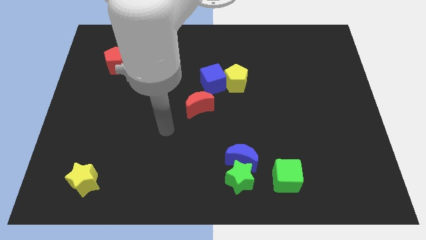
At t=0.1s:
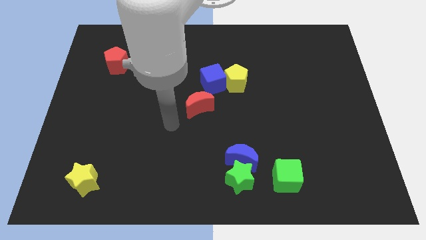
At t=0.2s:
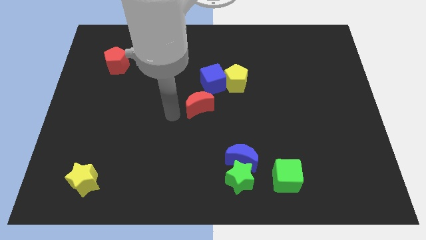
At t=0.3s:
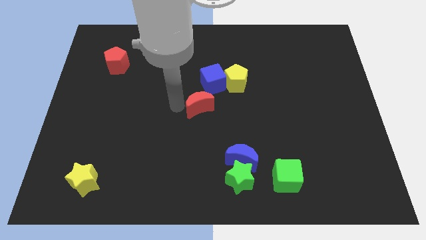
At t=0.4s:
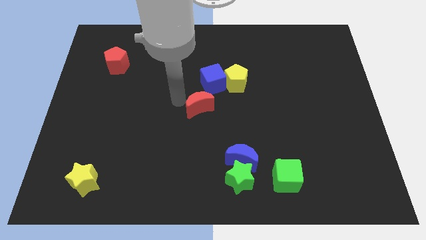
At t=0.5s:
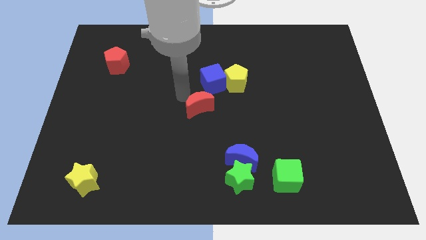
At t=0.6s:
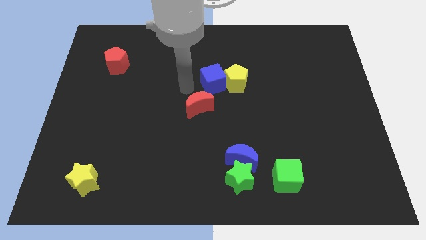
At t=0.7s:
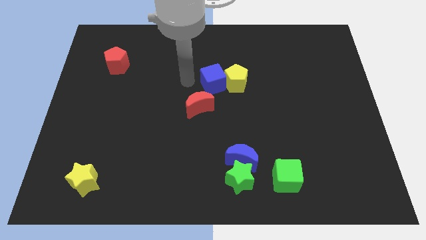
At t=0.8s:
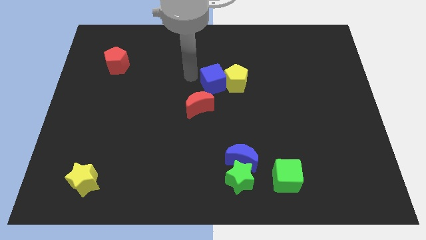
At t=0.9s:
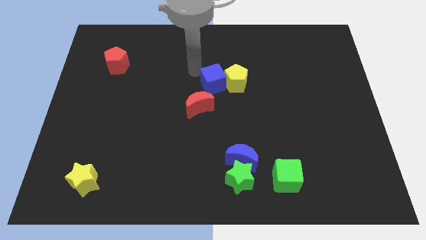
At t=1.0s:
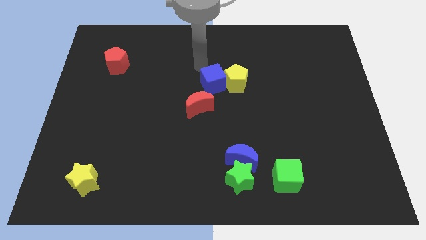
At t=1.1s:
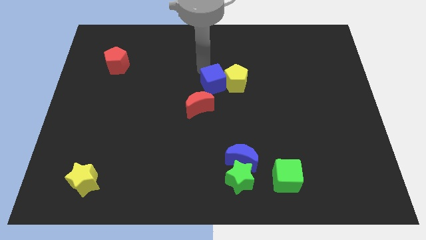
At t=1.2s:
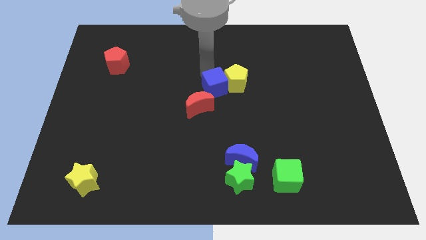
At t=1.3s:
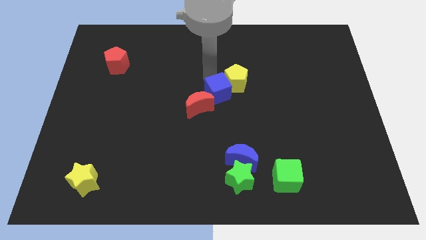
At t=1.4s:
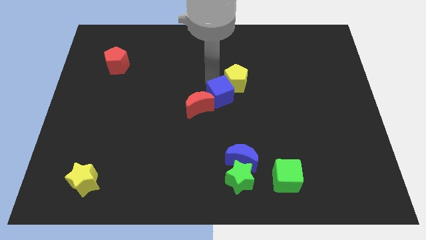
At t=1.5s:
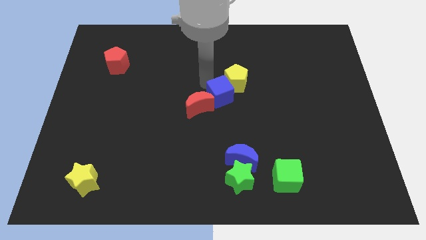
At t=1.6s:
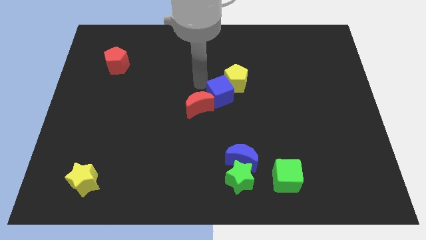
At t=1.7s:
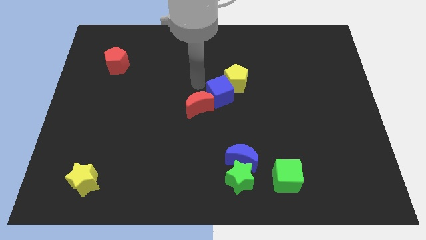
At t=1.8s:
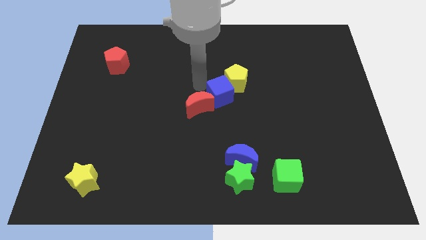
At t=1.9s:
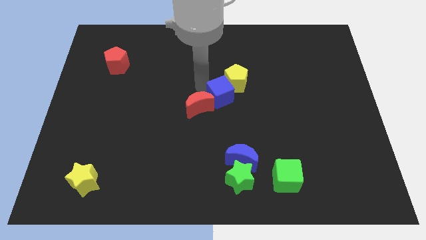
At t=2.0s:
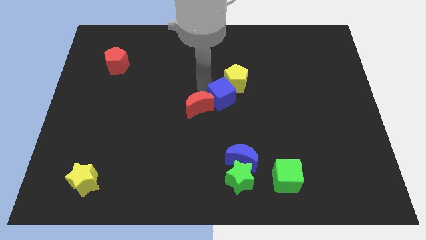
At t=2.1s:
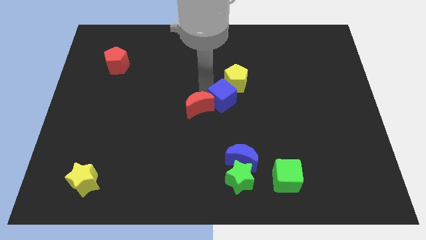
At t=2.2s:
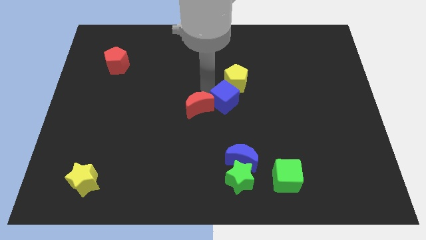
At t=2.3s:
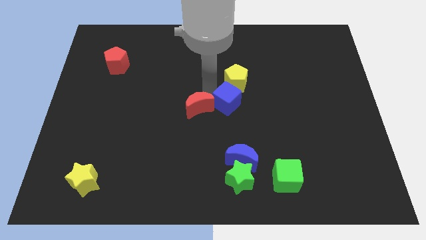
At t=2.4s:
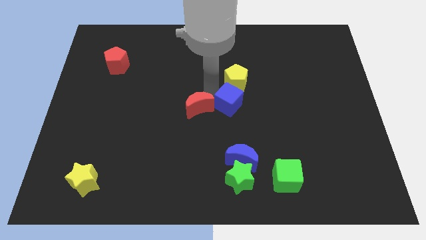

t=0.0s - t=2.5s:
move the blue cube a little down and right

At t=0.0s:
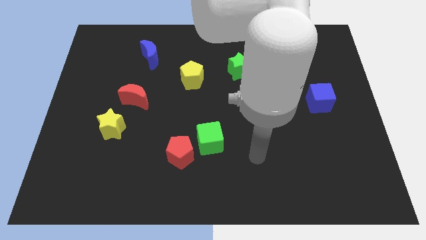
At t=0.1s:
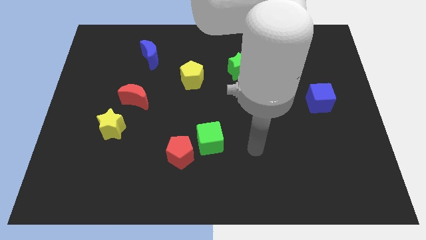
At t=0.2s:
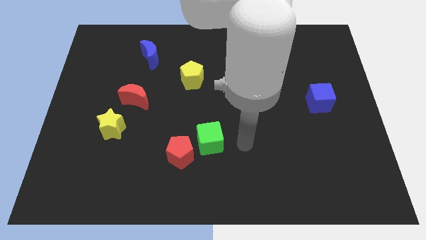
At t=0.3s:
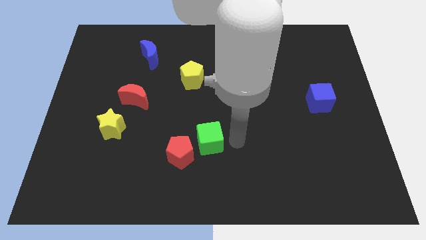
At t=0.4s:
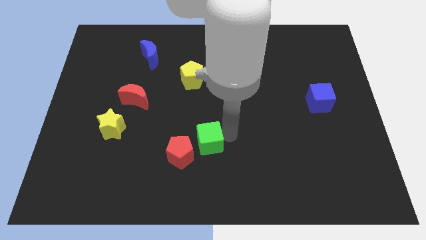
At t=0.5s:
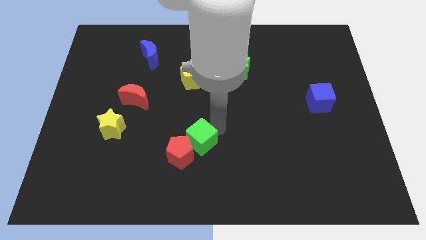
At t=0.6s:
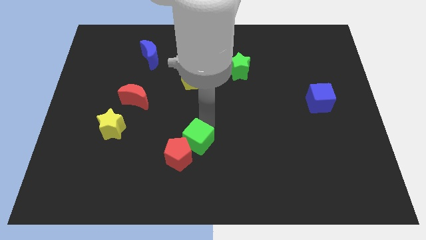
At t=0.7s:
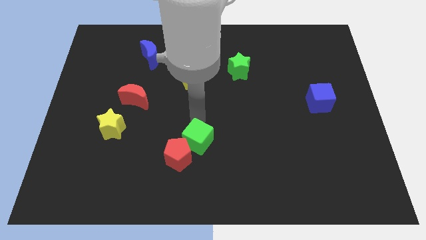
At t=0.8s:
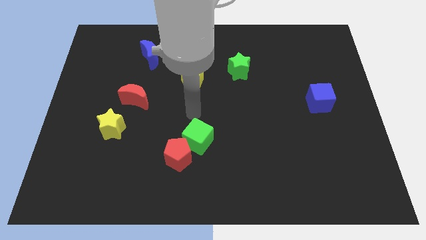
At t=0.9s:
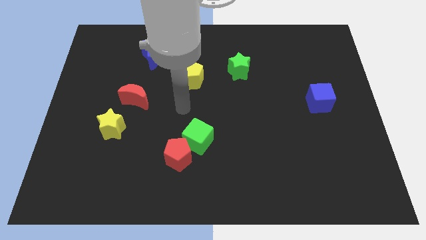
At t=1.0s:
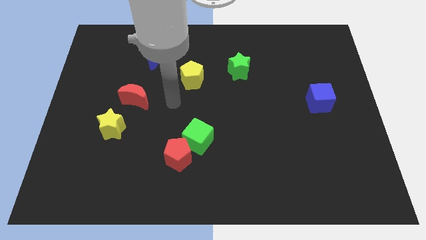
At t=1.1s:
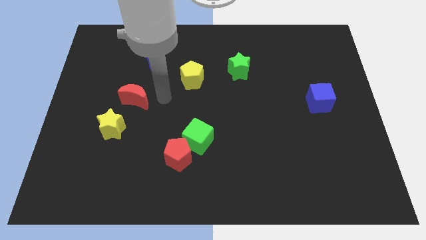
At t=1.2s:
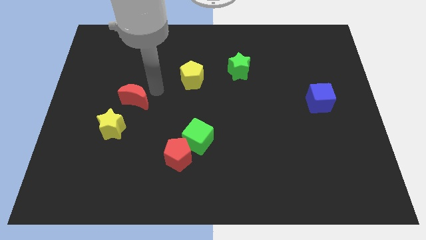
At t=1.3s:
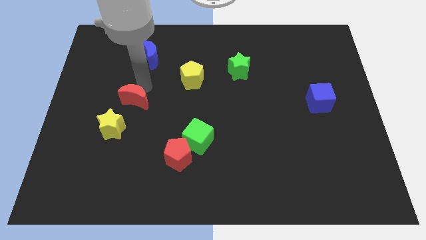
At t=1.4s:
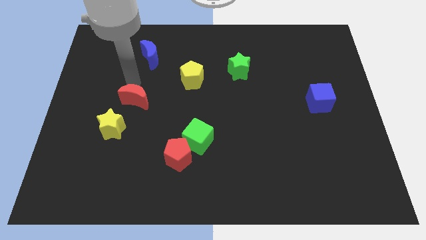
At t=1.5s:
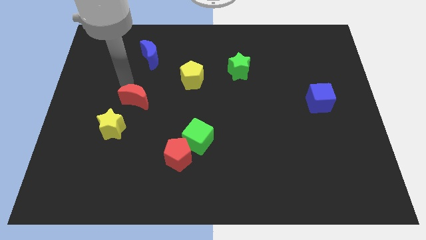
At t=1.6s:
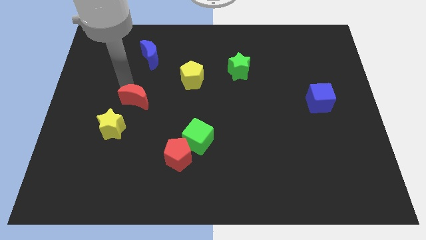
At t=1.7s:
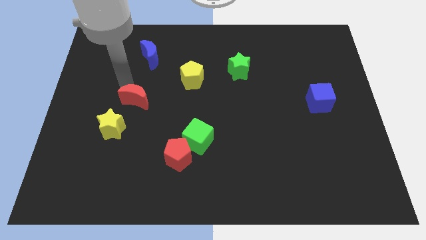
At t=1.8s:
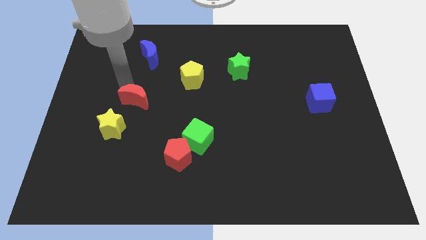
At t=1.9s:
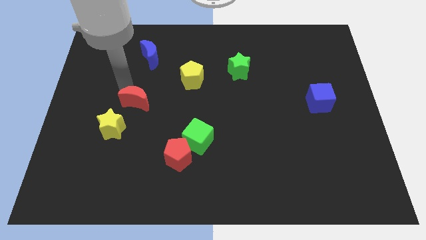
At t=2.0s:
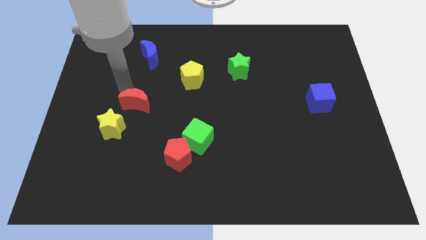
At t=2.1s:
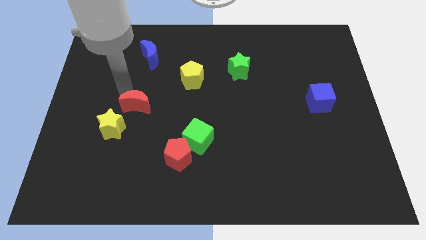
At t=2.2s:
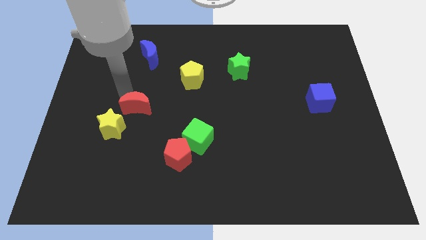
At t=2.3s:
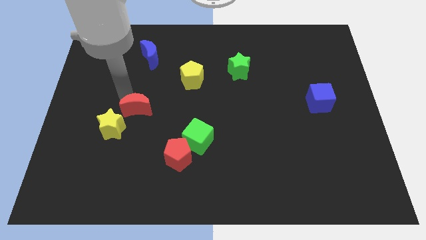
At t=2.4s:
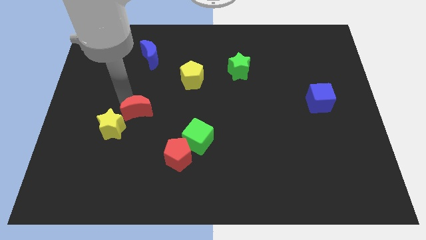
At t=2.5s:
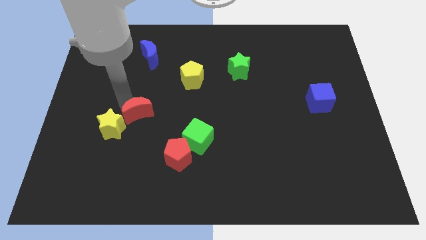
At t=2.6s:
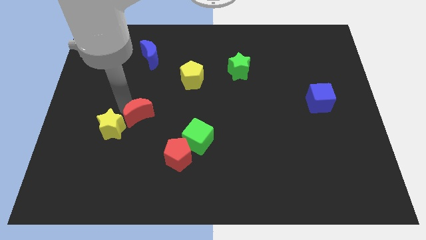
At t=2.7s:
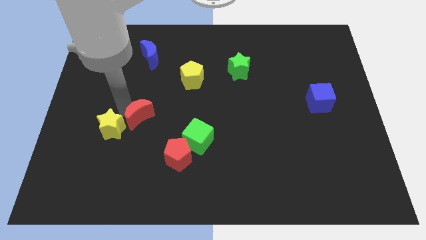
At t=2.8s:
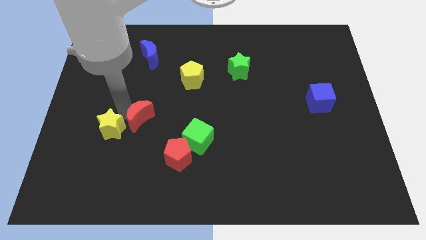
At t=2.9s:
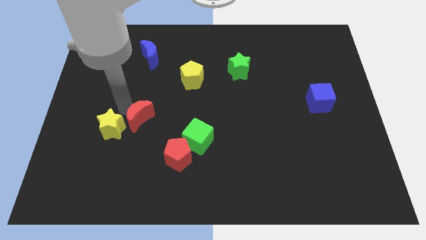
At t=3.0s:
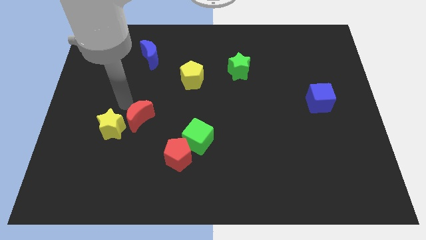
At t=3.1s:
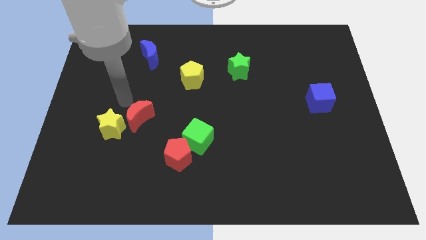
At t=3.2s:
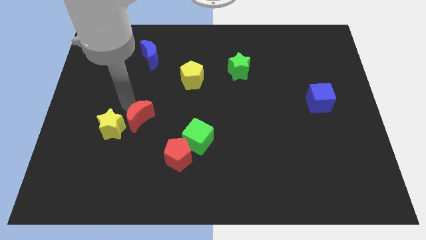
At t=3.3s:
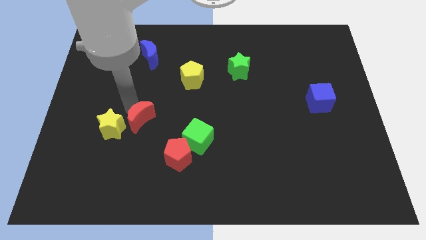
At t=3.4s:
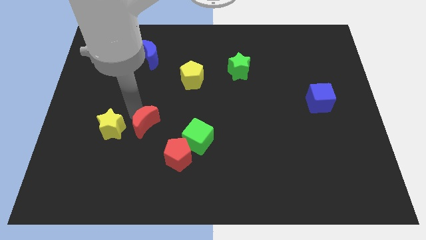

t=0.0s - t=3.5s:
slightly push the red moon downwards

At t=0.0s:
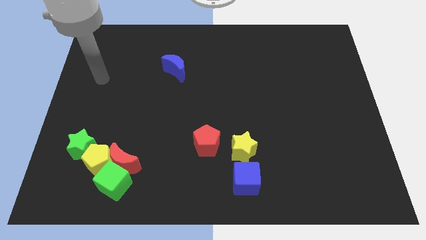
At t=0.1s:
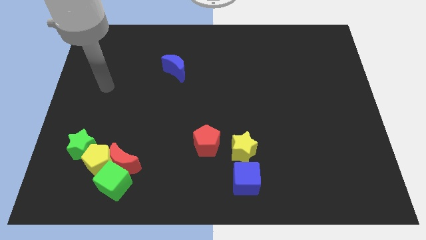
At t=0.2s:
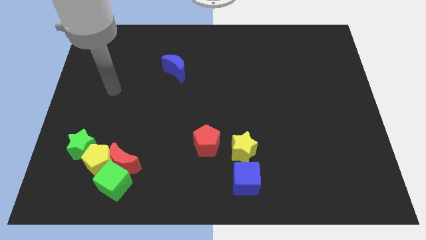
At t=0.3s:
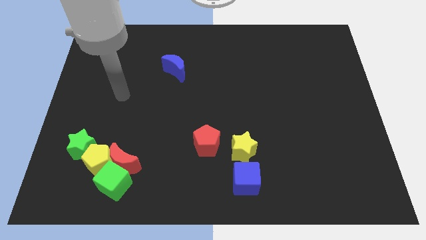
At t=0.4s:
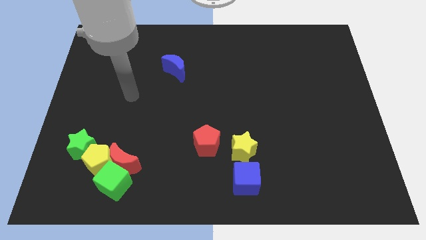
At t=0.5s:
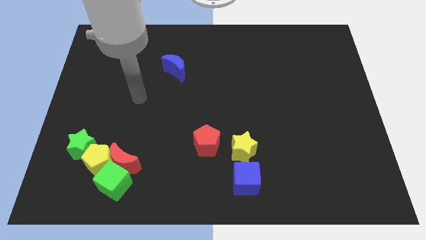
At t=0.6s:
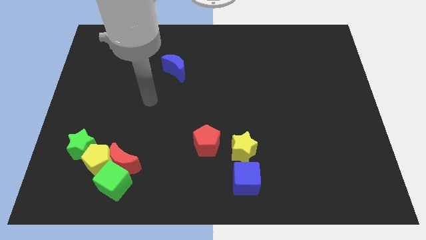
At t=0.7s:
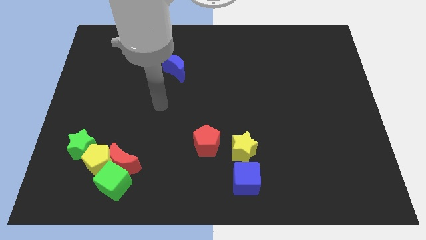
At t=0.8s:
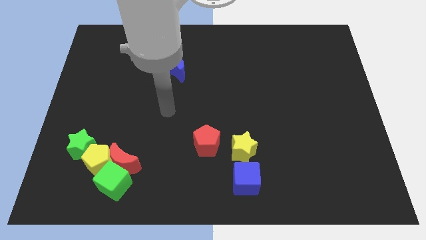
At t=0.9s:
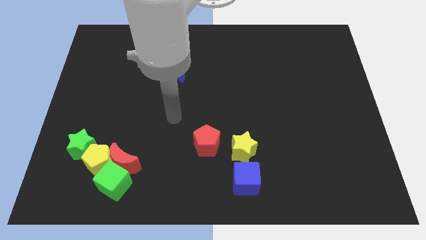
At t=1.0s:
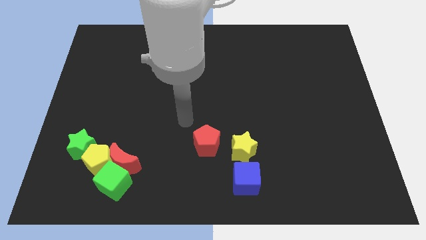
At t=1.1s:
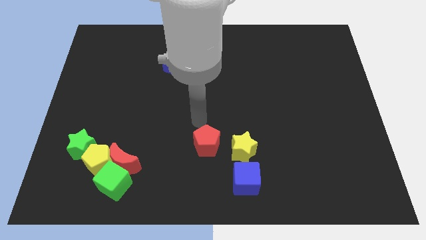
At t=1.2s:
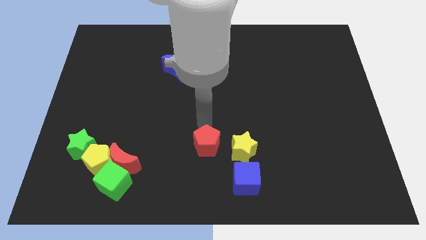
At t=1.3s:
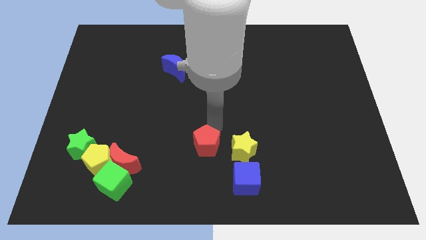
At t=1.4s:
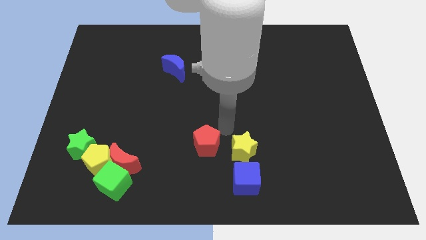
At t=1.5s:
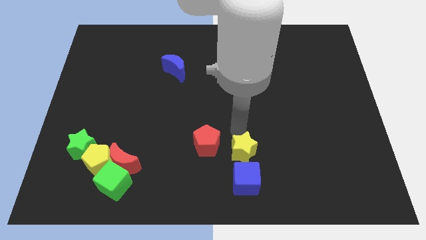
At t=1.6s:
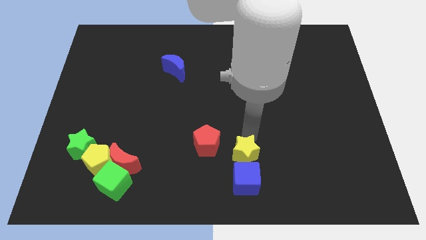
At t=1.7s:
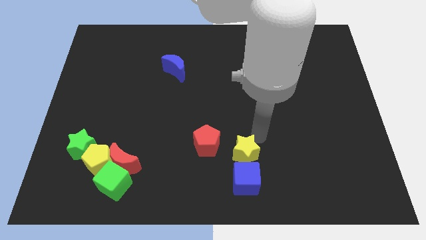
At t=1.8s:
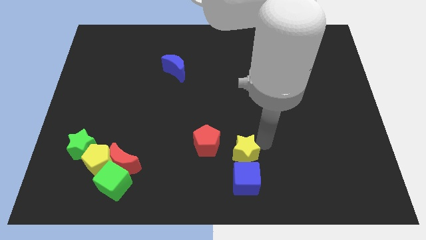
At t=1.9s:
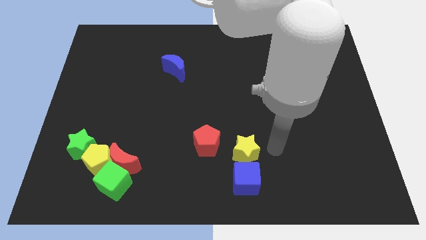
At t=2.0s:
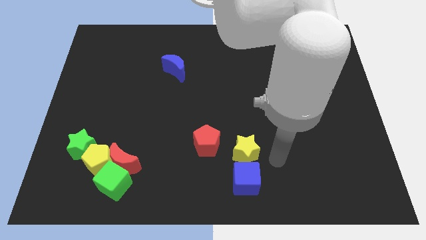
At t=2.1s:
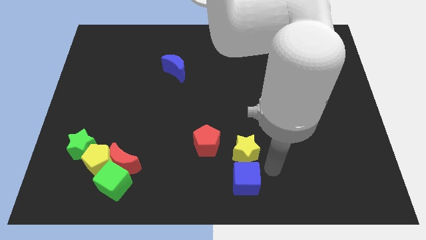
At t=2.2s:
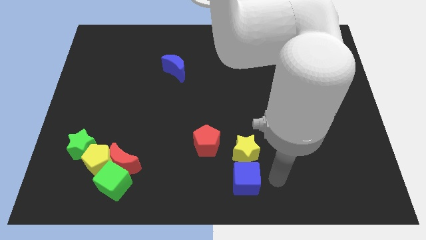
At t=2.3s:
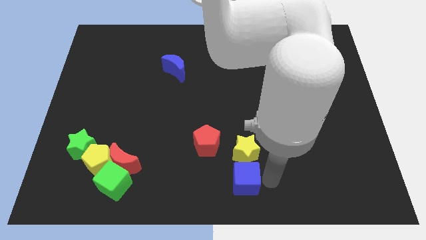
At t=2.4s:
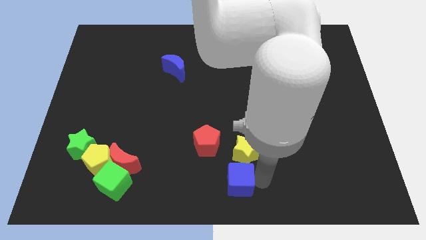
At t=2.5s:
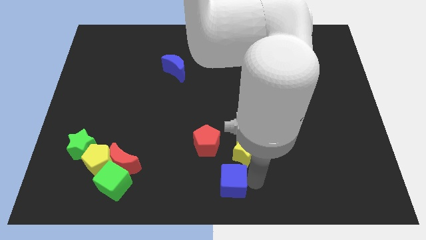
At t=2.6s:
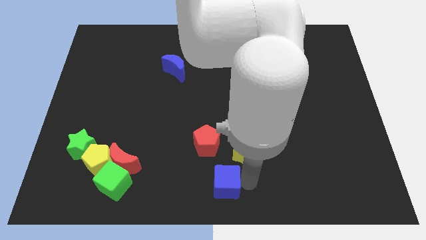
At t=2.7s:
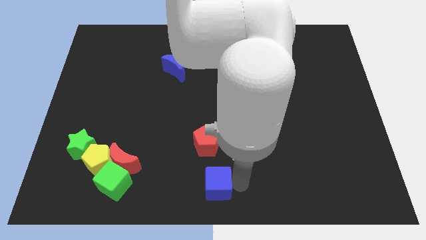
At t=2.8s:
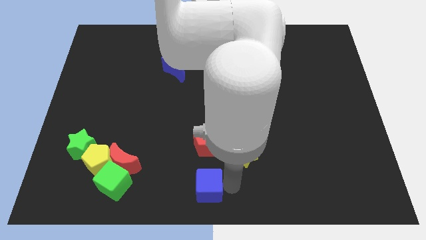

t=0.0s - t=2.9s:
push the blue cube left somewhat
